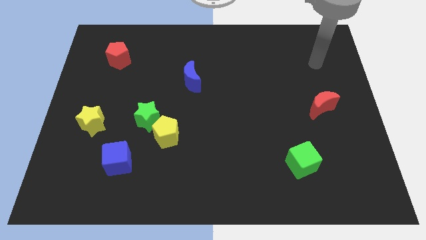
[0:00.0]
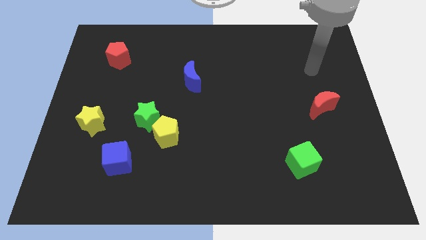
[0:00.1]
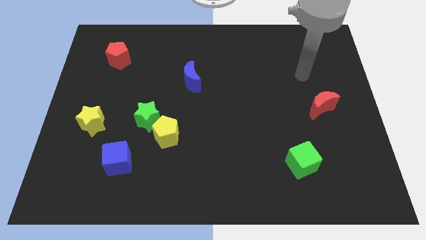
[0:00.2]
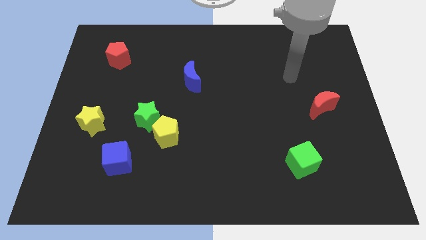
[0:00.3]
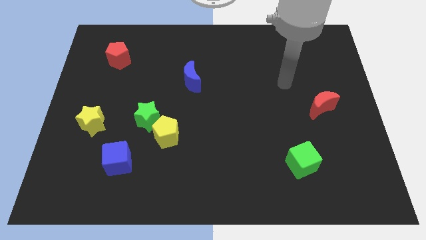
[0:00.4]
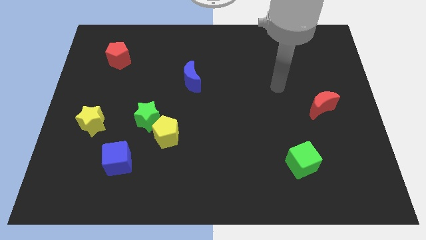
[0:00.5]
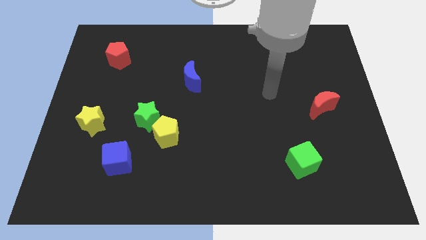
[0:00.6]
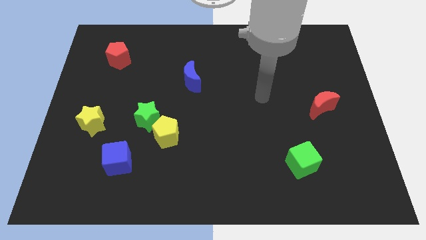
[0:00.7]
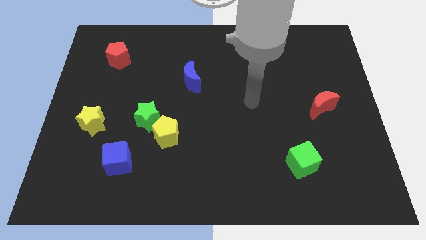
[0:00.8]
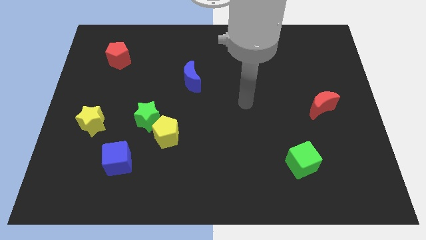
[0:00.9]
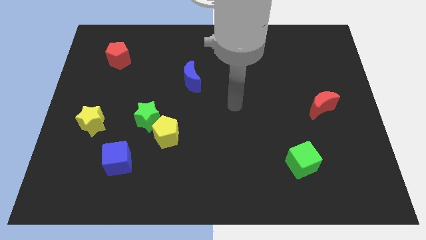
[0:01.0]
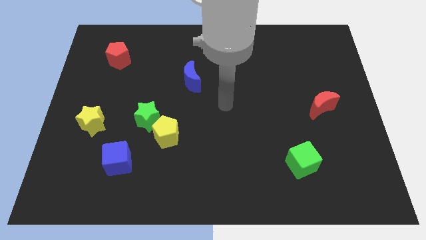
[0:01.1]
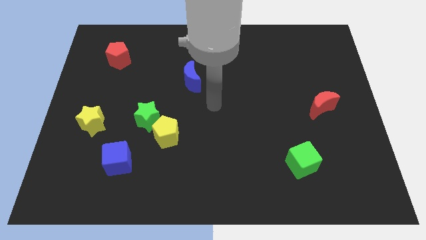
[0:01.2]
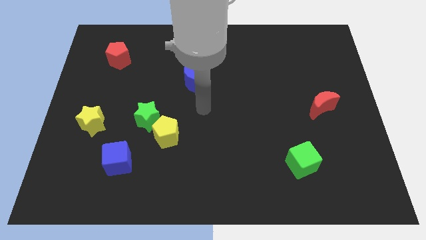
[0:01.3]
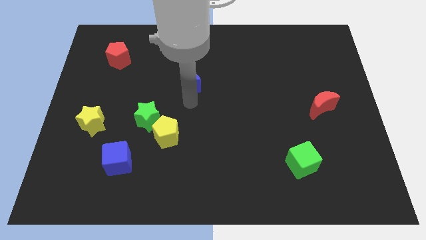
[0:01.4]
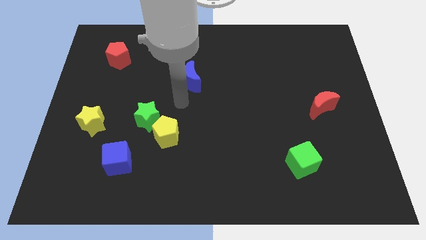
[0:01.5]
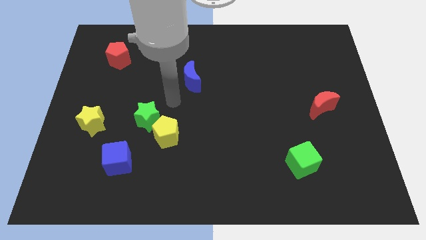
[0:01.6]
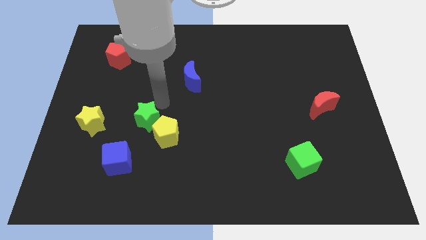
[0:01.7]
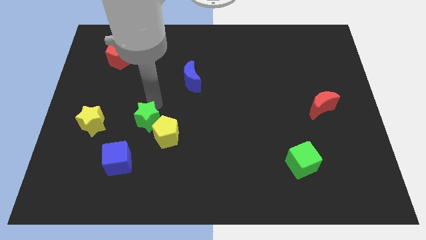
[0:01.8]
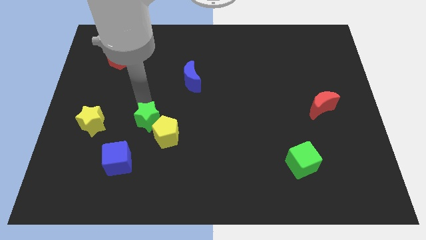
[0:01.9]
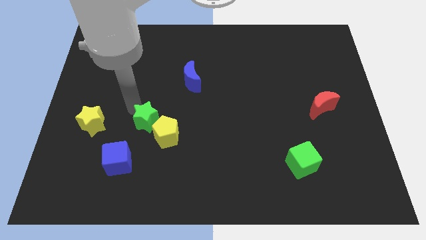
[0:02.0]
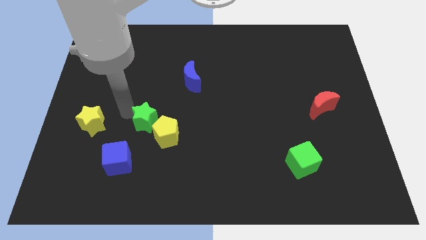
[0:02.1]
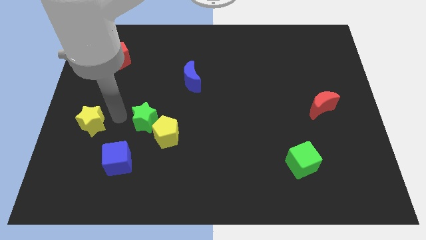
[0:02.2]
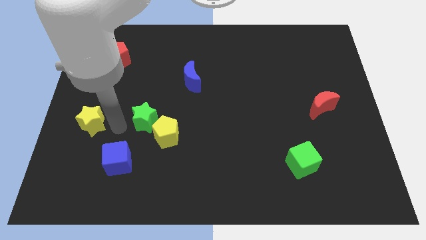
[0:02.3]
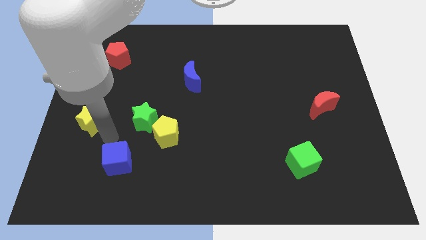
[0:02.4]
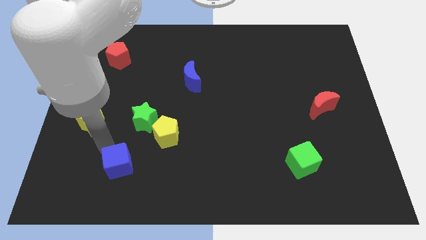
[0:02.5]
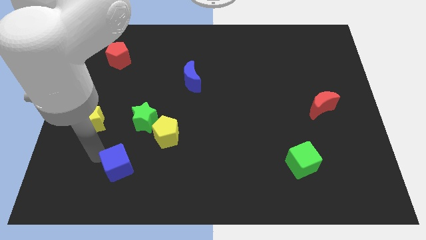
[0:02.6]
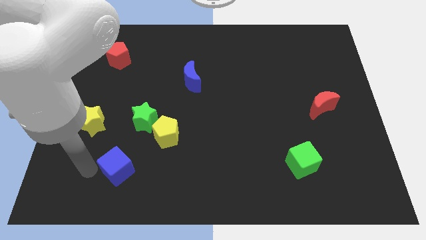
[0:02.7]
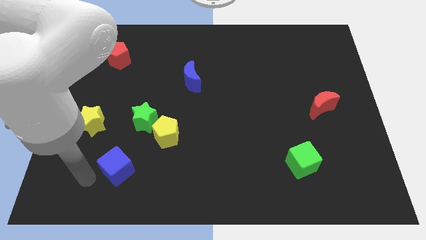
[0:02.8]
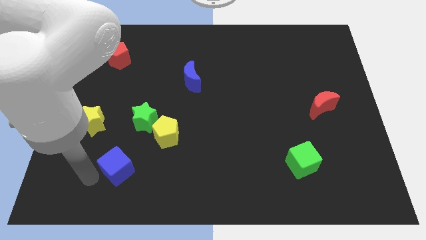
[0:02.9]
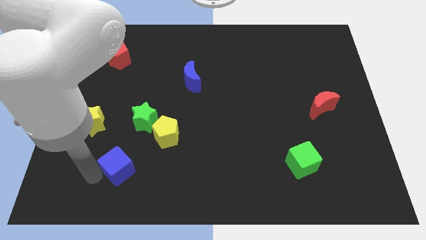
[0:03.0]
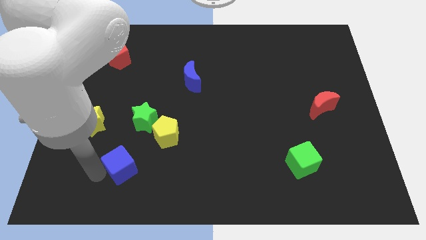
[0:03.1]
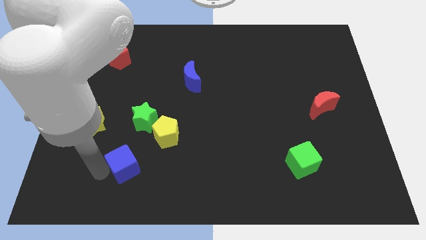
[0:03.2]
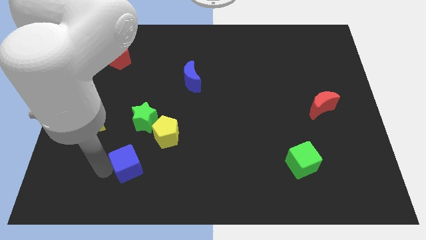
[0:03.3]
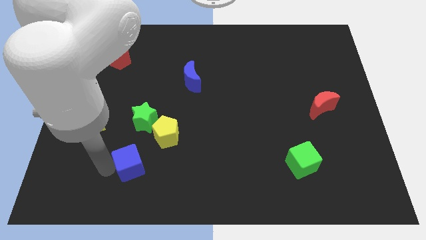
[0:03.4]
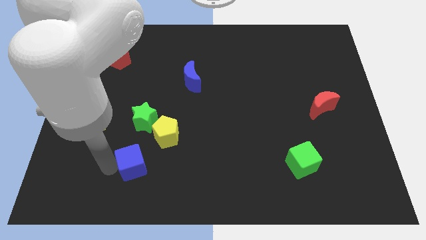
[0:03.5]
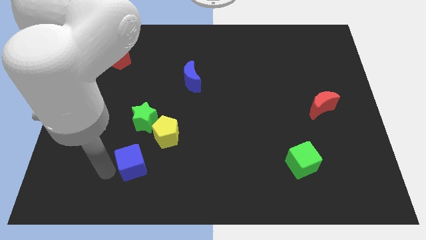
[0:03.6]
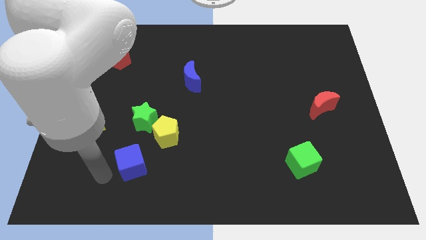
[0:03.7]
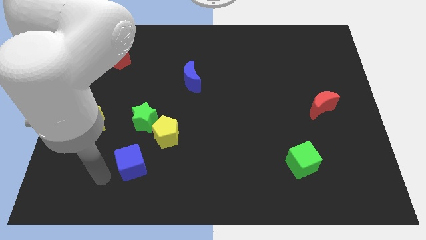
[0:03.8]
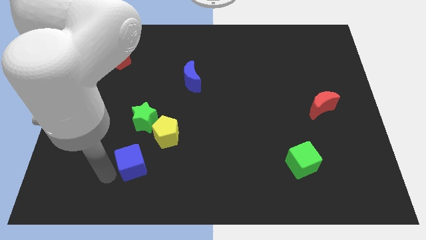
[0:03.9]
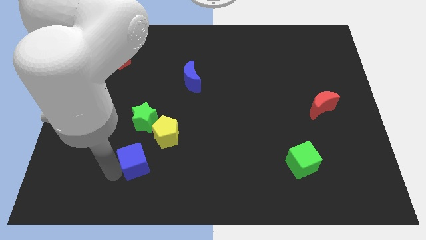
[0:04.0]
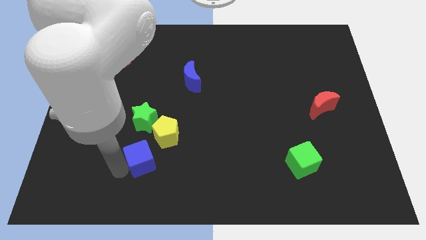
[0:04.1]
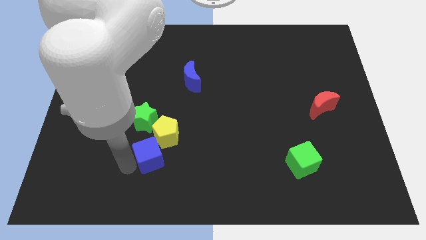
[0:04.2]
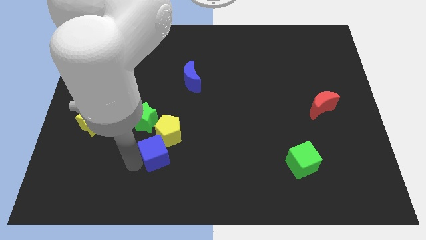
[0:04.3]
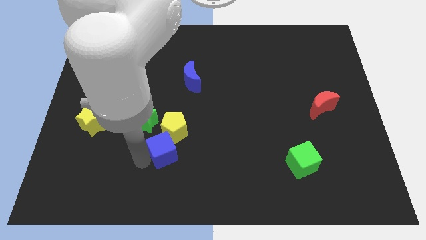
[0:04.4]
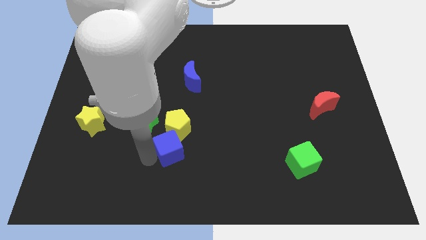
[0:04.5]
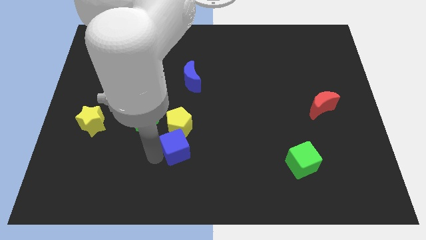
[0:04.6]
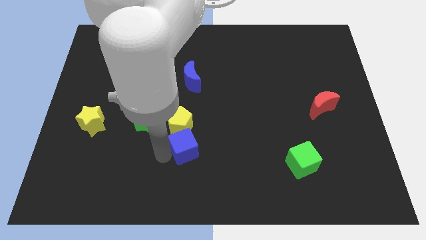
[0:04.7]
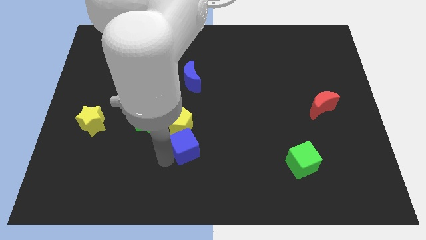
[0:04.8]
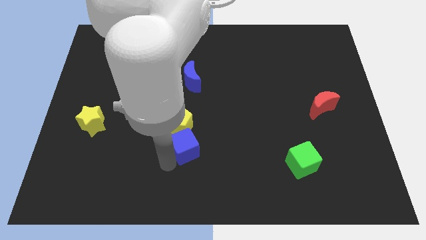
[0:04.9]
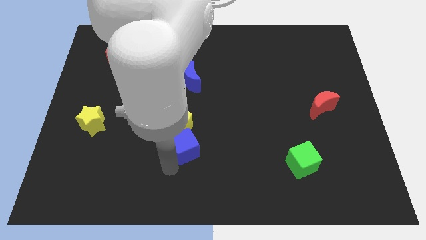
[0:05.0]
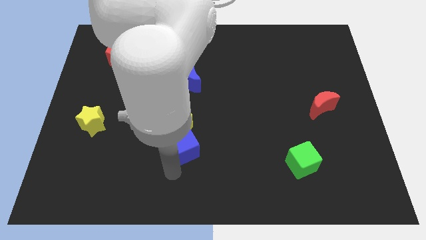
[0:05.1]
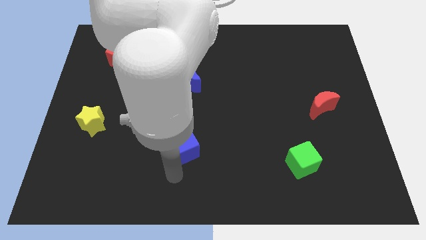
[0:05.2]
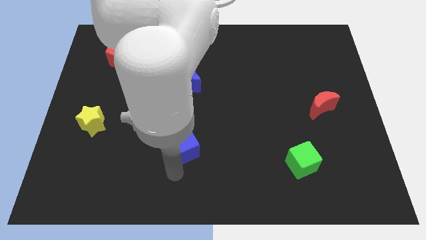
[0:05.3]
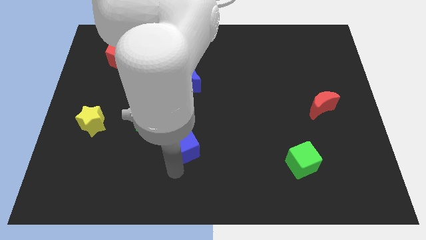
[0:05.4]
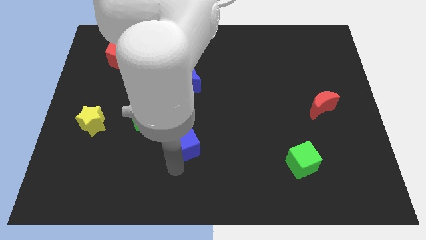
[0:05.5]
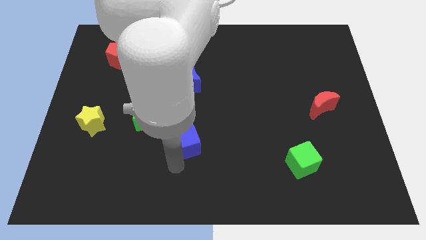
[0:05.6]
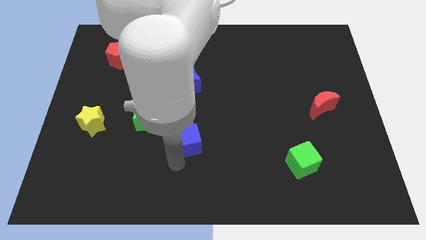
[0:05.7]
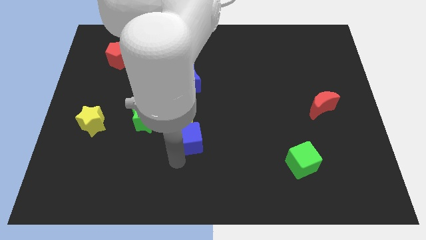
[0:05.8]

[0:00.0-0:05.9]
put the blue cube to the center
